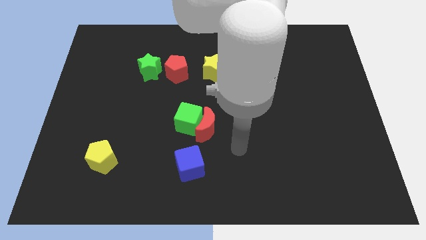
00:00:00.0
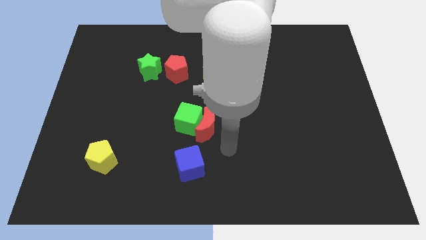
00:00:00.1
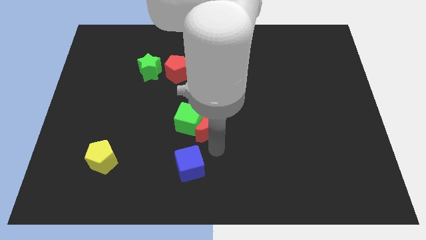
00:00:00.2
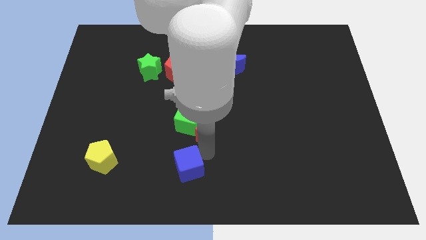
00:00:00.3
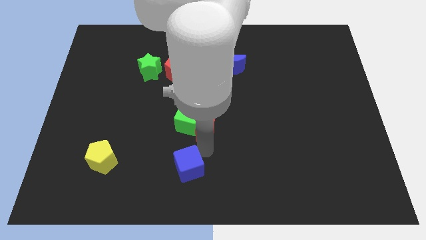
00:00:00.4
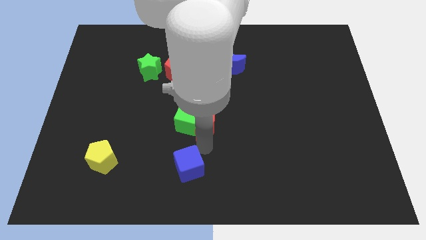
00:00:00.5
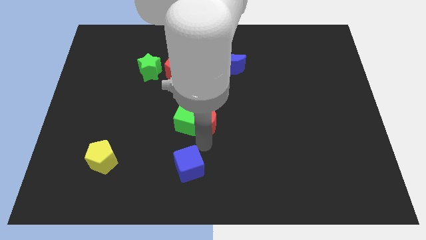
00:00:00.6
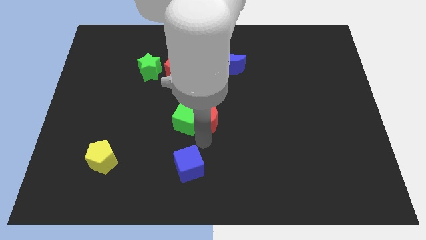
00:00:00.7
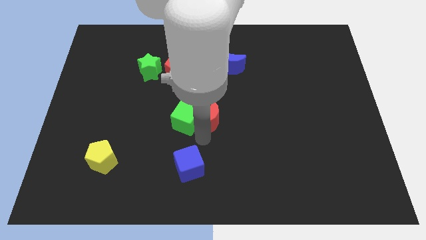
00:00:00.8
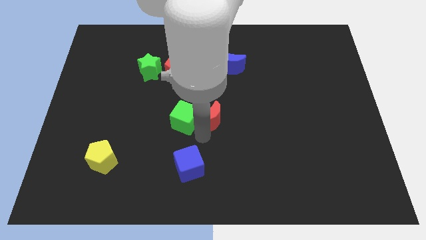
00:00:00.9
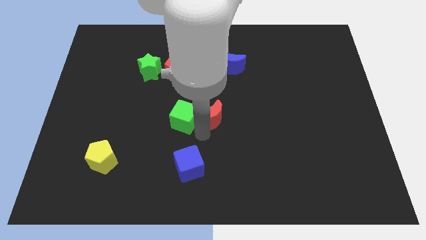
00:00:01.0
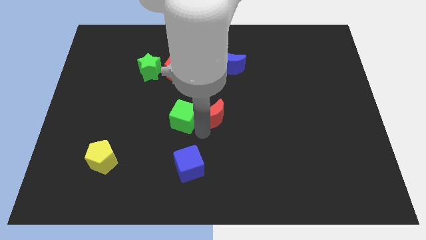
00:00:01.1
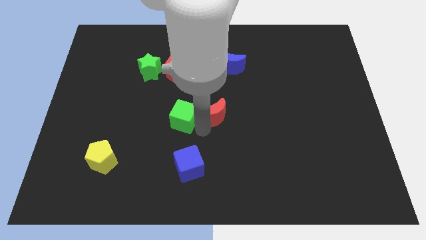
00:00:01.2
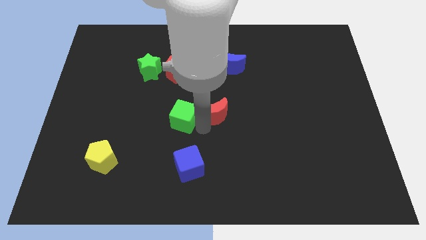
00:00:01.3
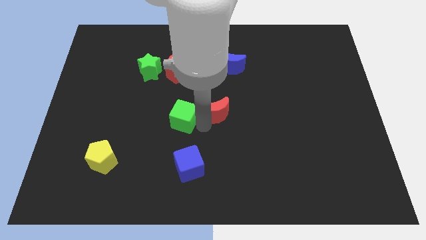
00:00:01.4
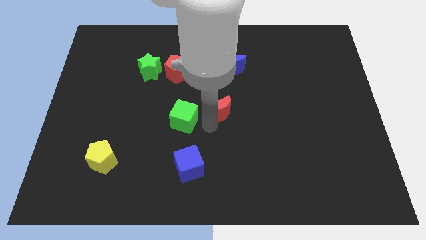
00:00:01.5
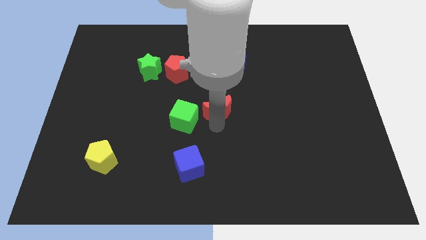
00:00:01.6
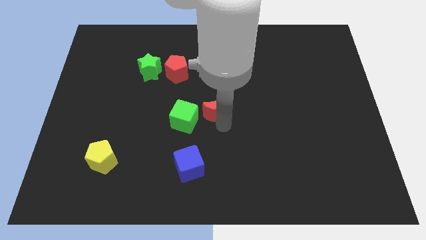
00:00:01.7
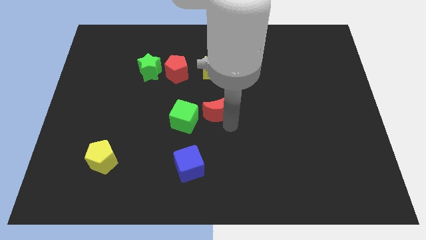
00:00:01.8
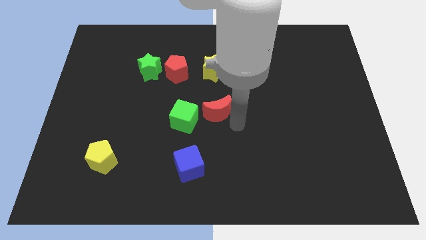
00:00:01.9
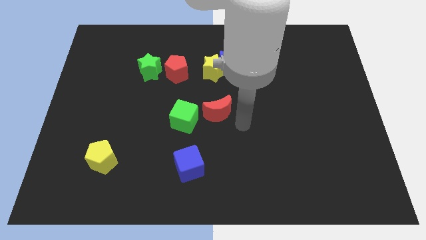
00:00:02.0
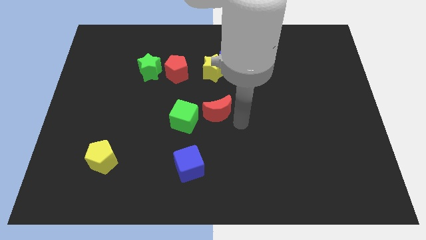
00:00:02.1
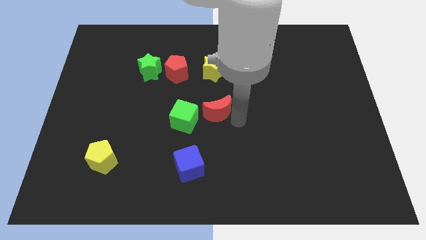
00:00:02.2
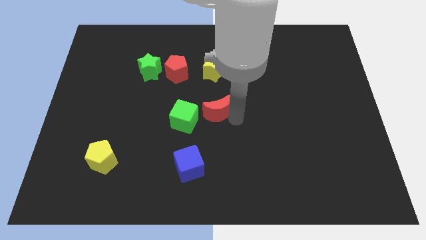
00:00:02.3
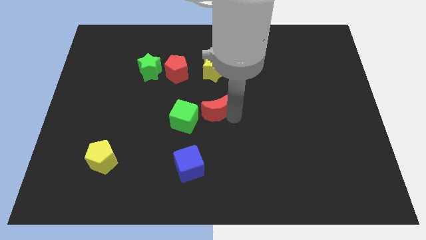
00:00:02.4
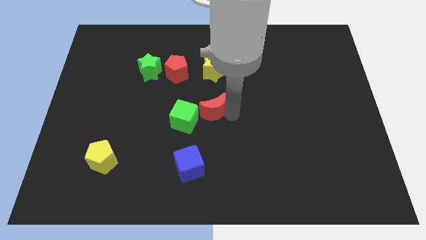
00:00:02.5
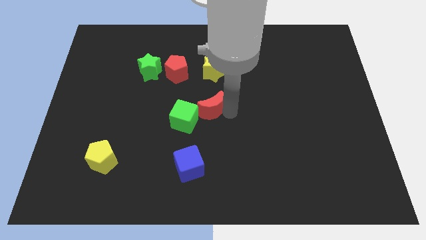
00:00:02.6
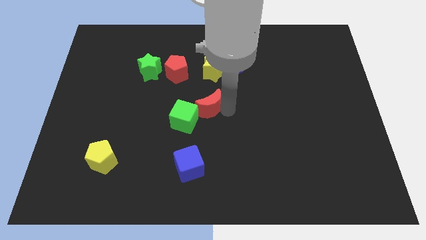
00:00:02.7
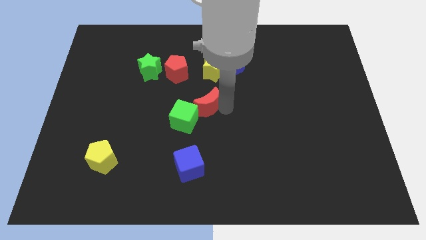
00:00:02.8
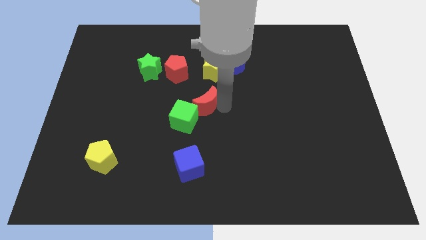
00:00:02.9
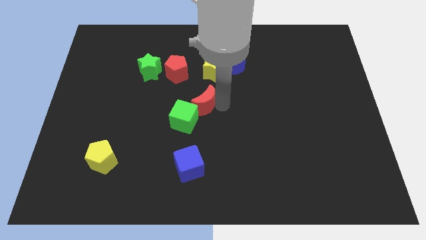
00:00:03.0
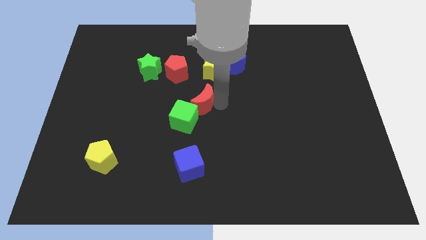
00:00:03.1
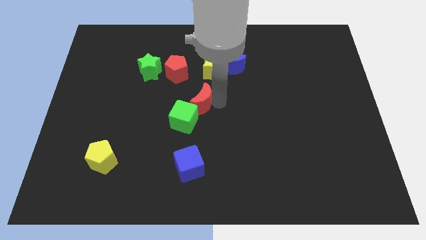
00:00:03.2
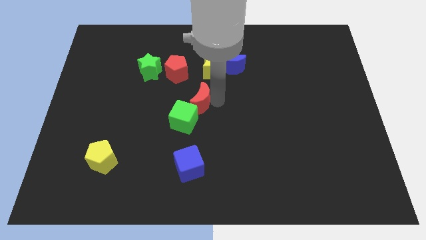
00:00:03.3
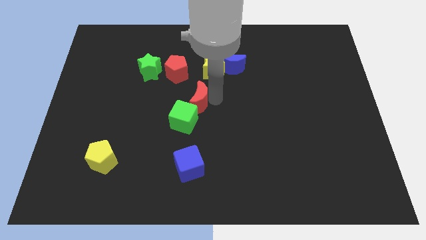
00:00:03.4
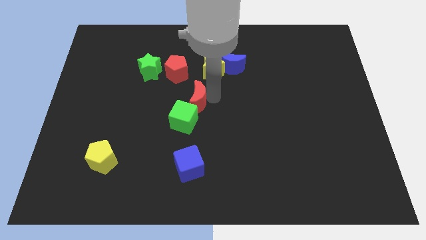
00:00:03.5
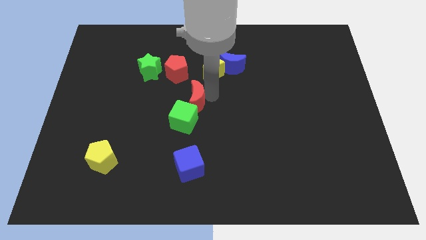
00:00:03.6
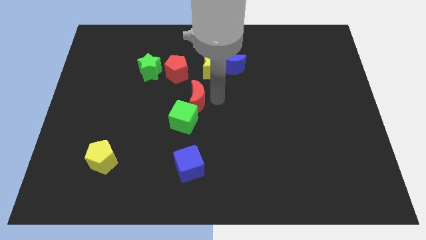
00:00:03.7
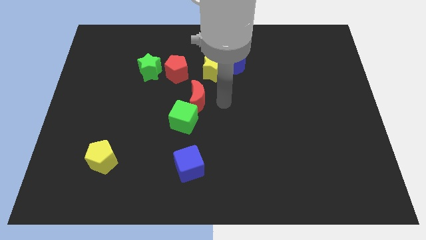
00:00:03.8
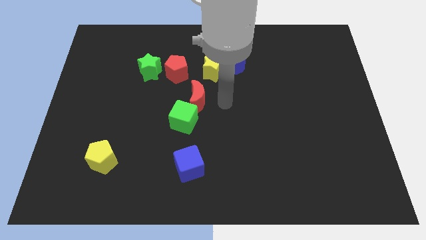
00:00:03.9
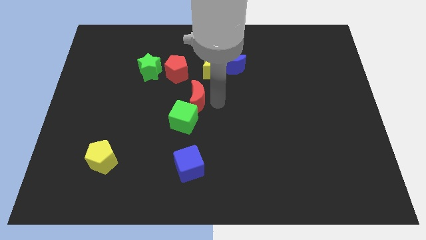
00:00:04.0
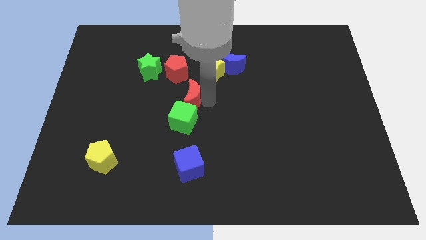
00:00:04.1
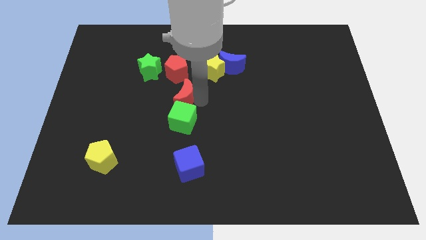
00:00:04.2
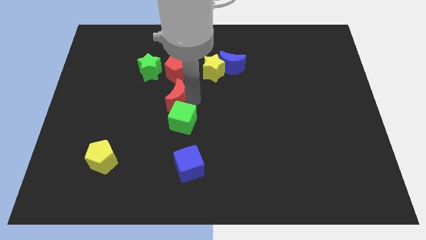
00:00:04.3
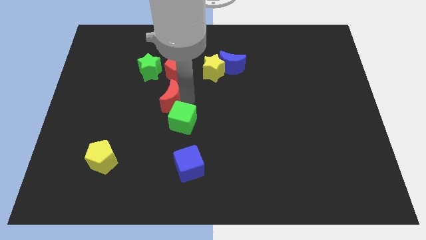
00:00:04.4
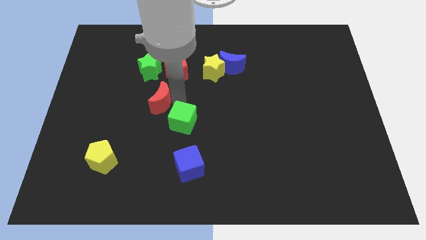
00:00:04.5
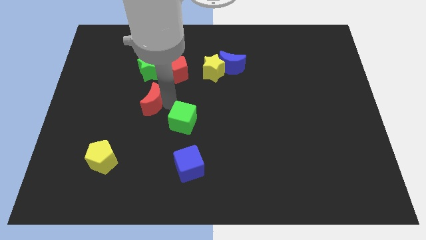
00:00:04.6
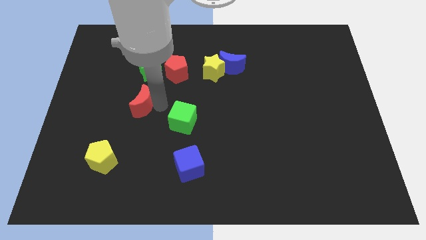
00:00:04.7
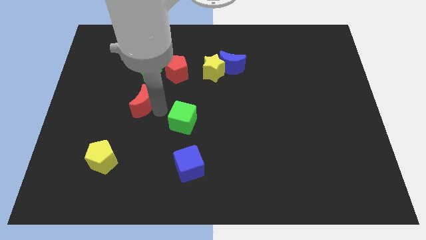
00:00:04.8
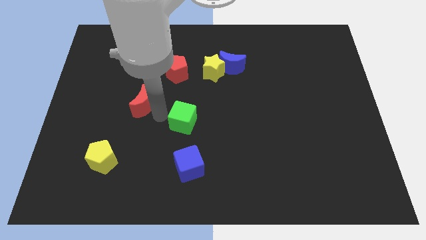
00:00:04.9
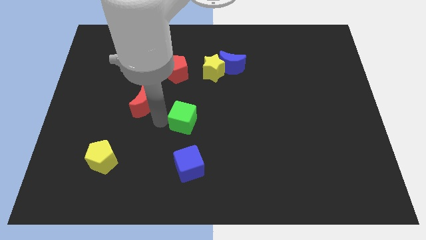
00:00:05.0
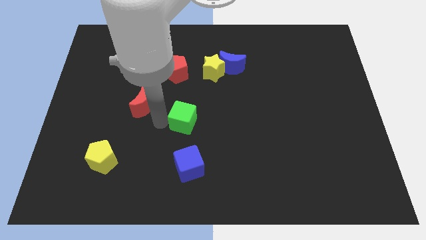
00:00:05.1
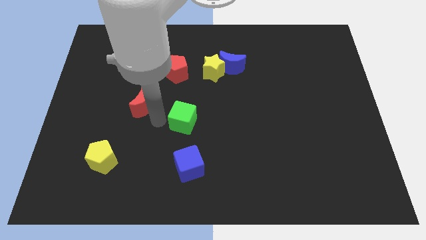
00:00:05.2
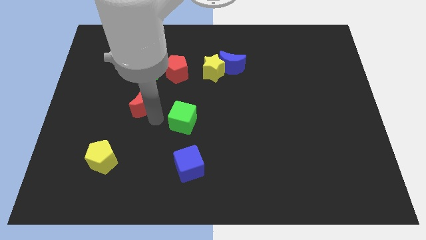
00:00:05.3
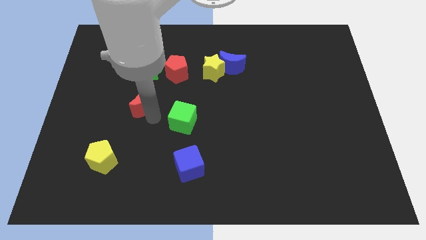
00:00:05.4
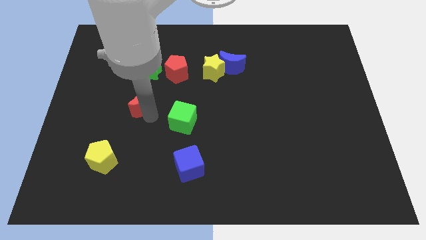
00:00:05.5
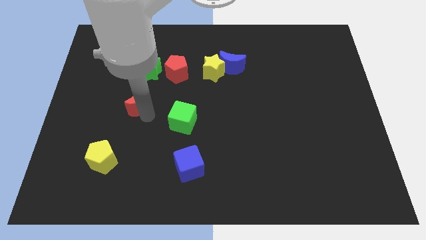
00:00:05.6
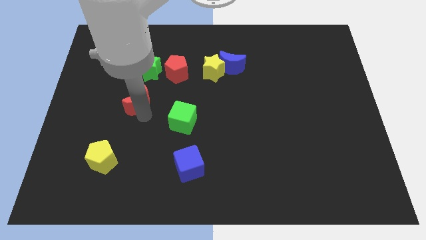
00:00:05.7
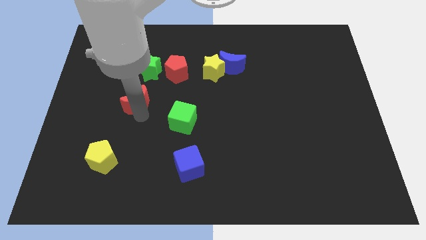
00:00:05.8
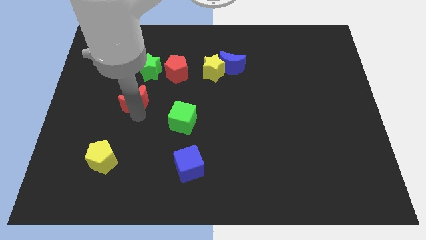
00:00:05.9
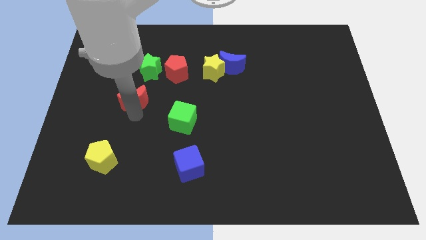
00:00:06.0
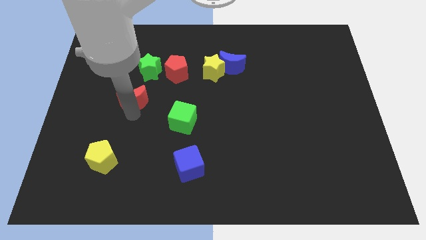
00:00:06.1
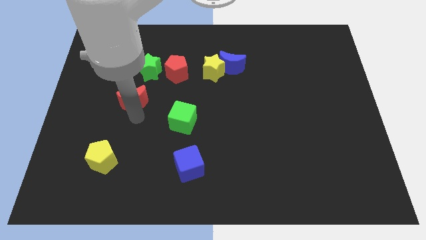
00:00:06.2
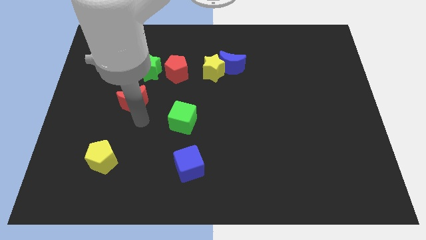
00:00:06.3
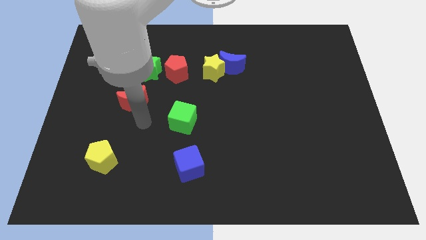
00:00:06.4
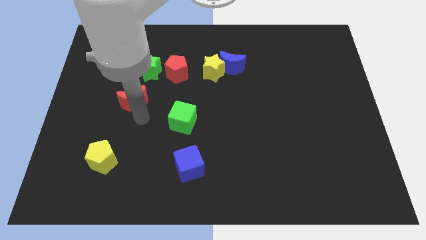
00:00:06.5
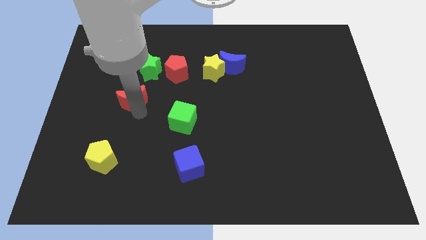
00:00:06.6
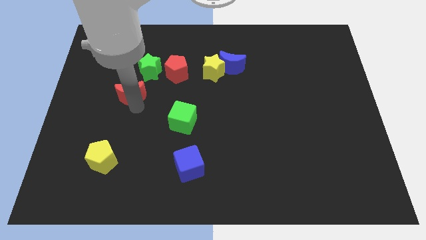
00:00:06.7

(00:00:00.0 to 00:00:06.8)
move the red moon to the bottom left of the green star

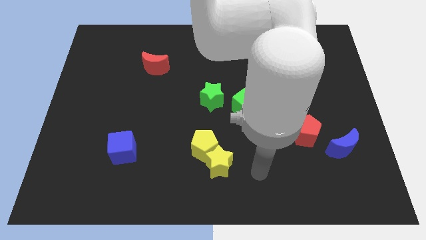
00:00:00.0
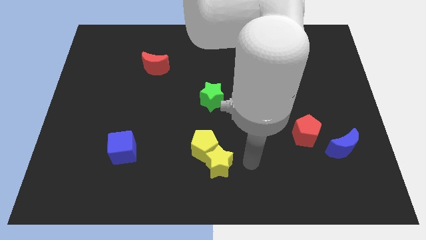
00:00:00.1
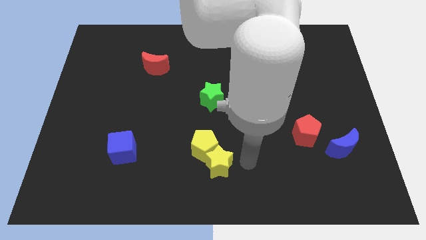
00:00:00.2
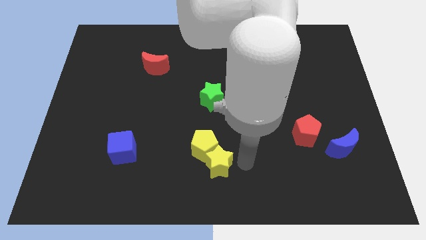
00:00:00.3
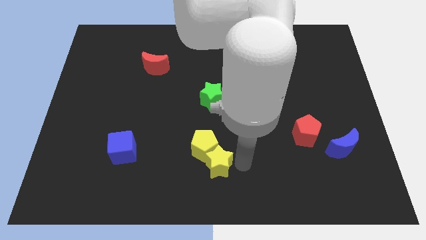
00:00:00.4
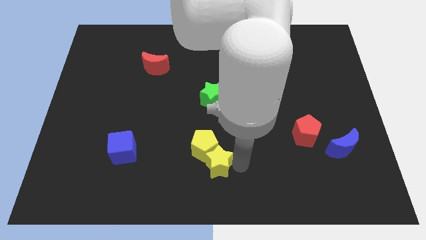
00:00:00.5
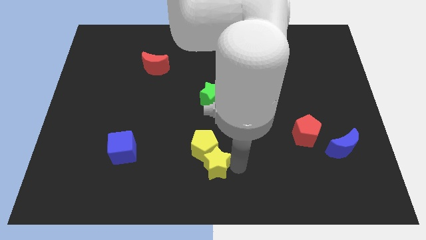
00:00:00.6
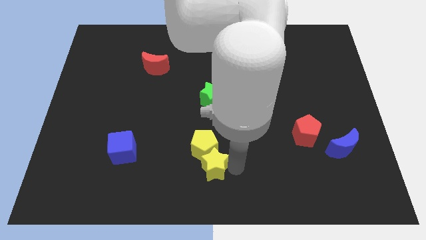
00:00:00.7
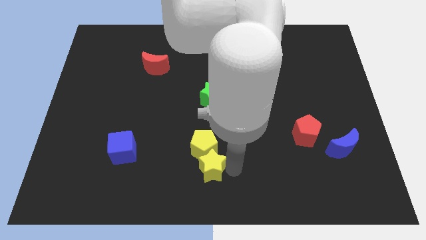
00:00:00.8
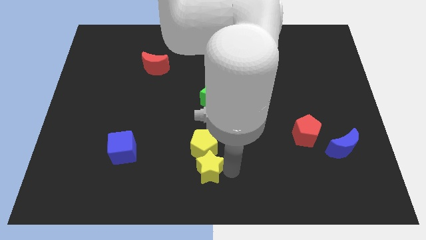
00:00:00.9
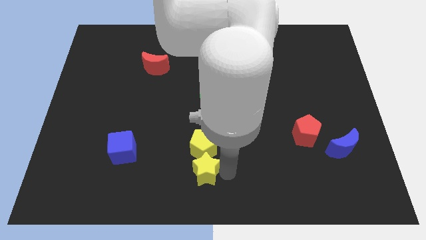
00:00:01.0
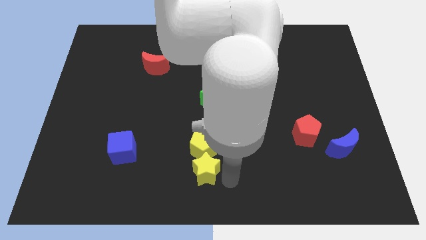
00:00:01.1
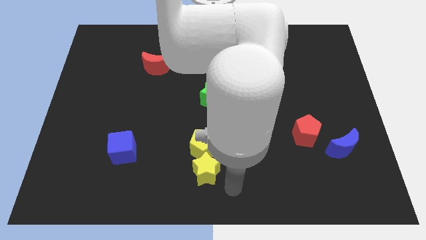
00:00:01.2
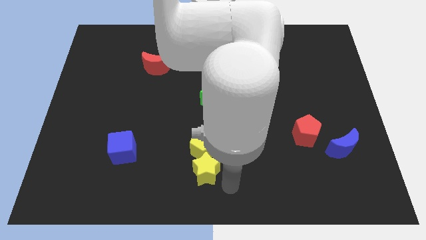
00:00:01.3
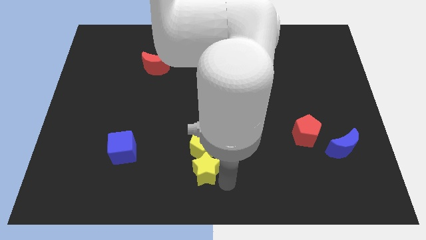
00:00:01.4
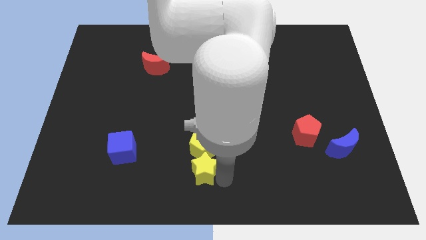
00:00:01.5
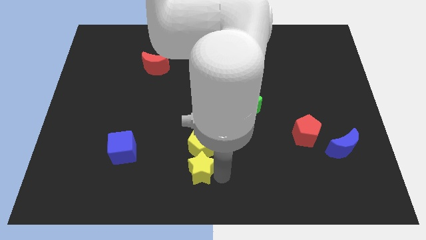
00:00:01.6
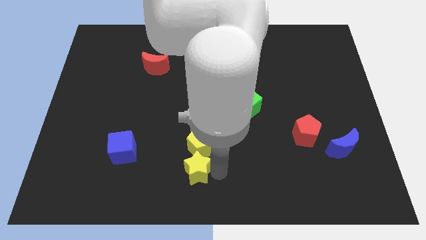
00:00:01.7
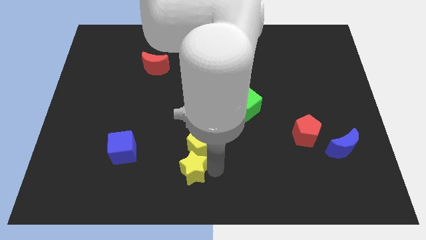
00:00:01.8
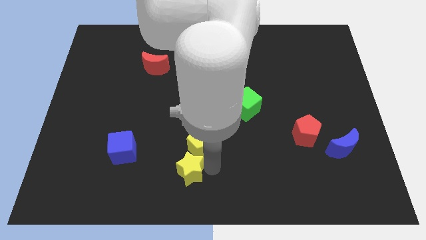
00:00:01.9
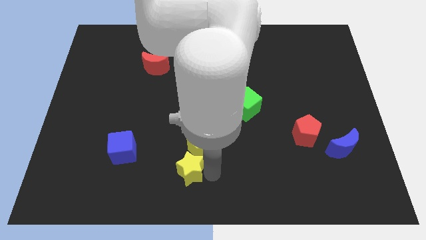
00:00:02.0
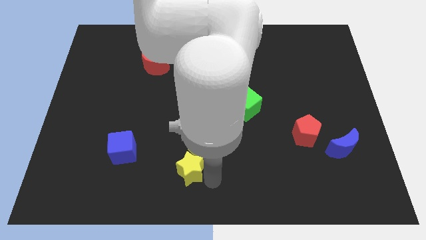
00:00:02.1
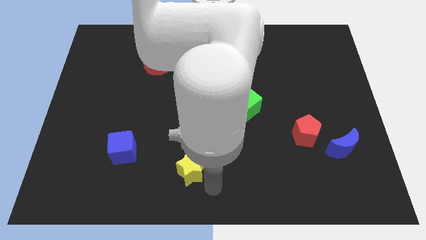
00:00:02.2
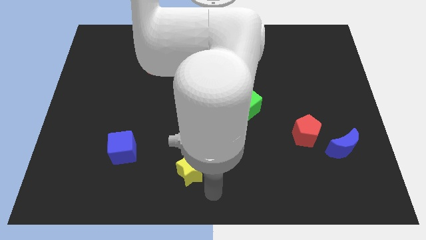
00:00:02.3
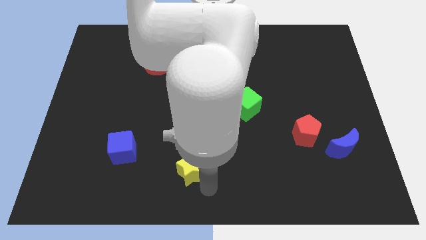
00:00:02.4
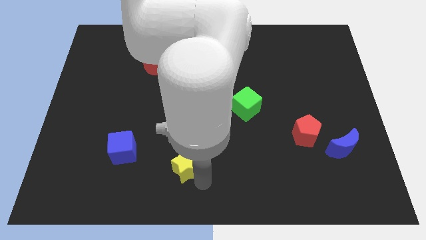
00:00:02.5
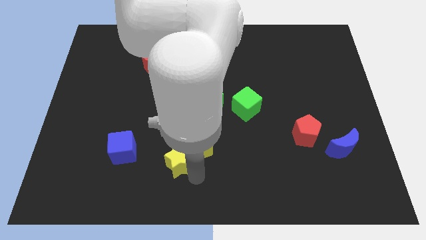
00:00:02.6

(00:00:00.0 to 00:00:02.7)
slide the yellow star right of the blue cube
